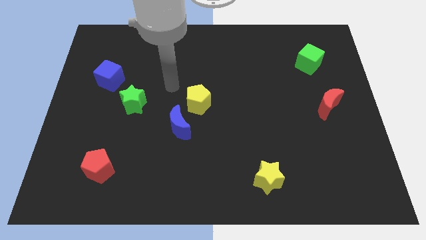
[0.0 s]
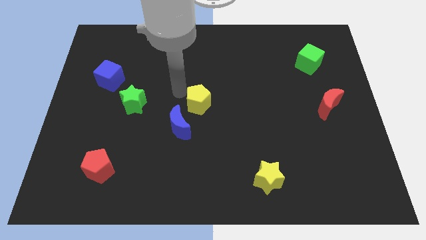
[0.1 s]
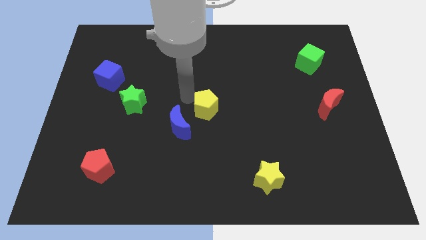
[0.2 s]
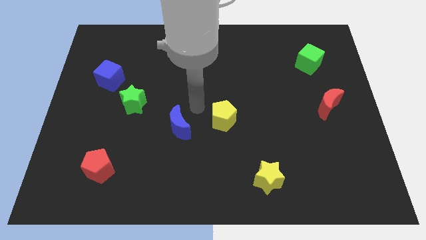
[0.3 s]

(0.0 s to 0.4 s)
move the blue moon away from the yellow pentagon

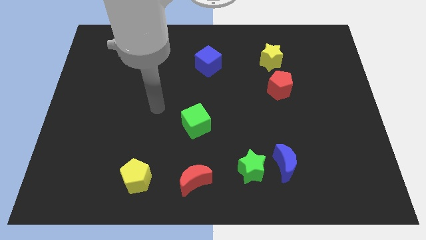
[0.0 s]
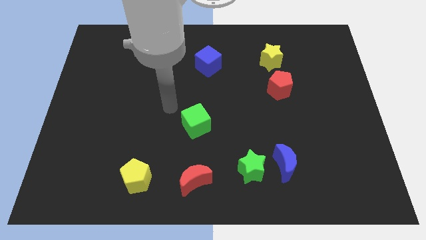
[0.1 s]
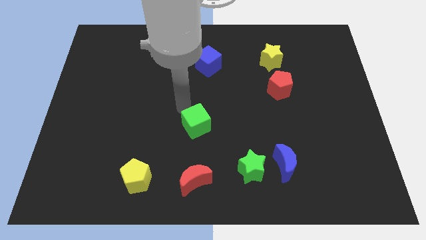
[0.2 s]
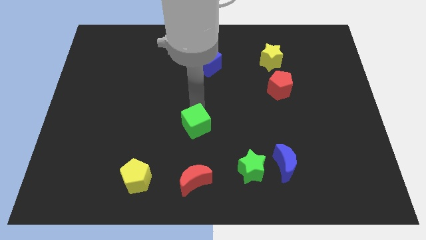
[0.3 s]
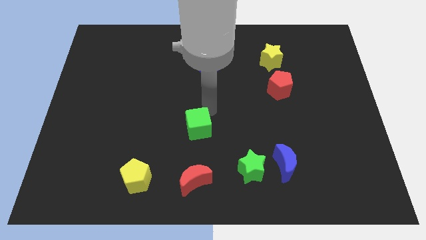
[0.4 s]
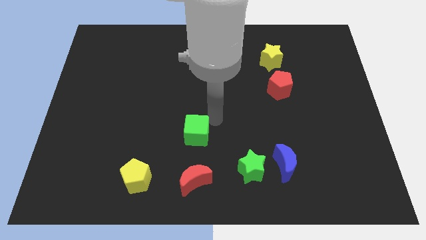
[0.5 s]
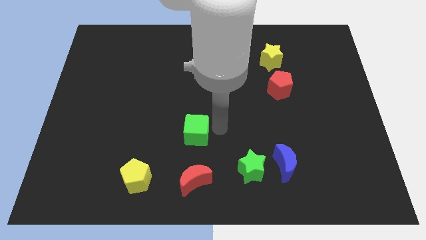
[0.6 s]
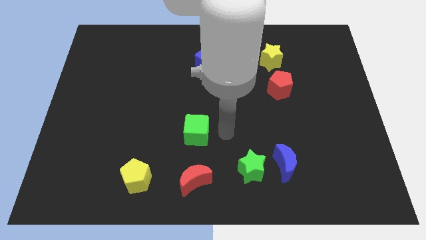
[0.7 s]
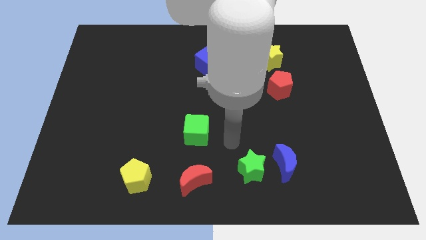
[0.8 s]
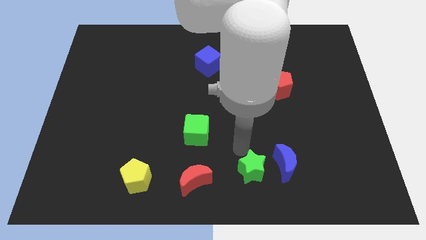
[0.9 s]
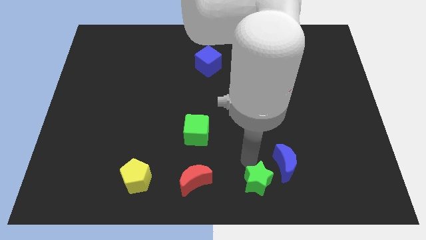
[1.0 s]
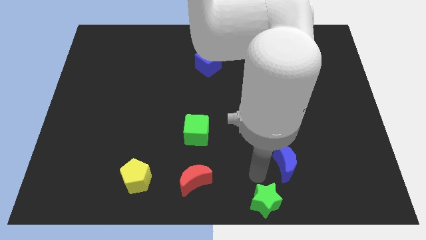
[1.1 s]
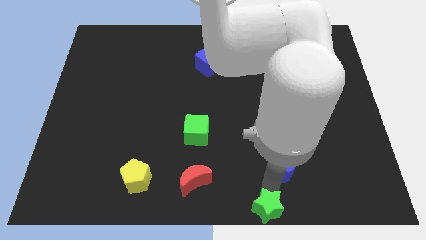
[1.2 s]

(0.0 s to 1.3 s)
pull the blue moon apart from the green star

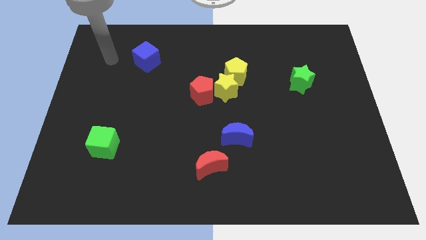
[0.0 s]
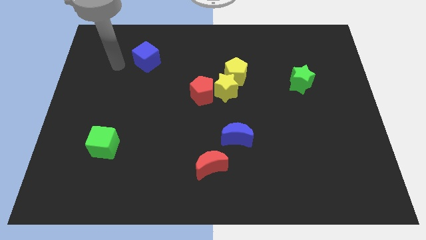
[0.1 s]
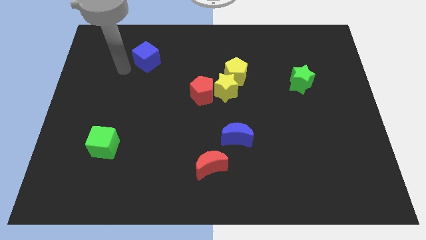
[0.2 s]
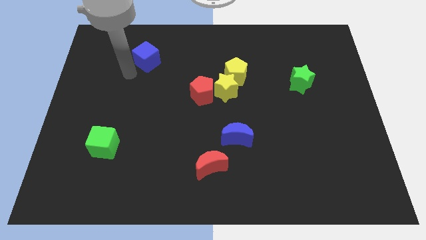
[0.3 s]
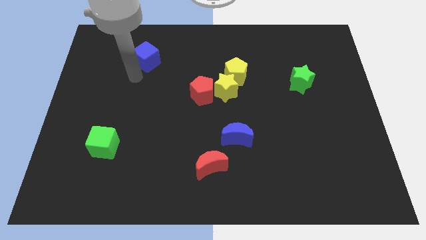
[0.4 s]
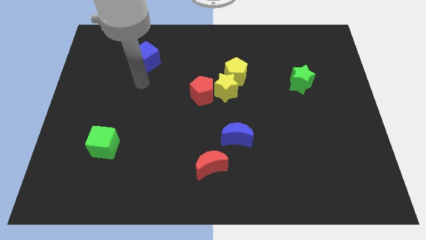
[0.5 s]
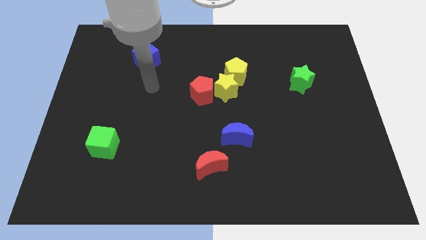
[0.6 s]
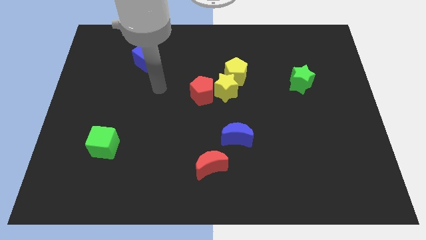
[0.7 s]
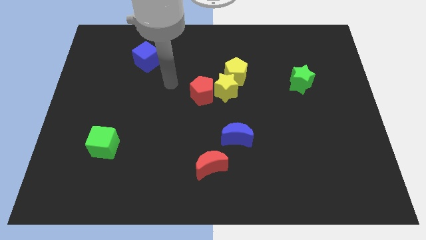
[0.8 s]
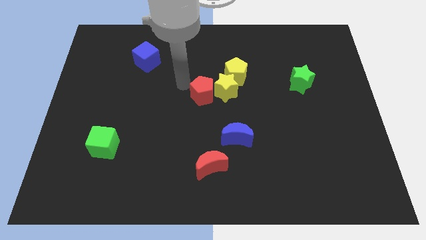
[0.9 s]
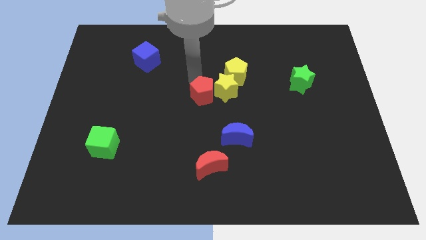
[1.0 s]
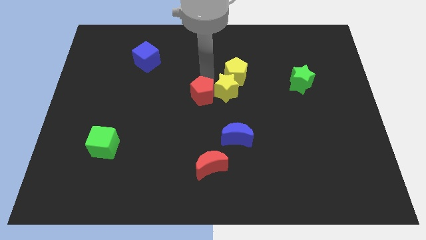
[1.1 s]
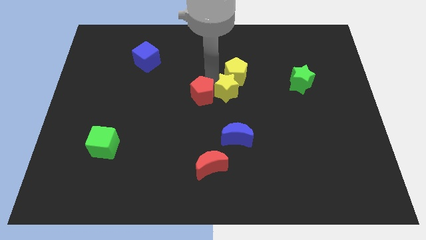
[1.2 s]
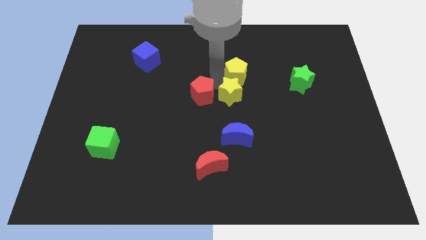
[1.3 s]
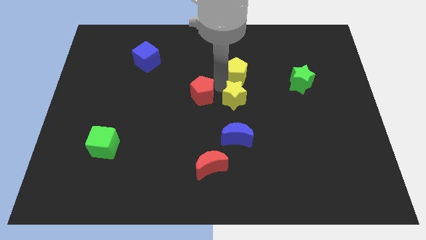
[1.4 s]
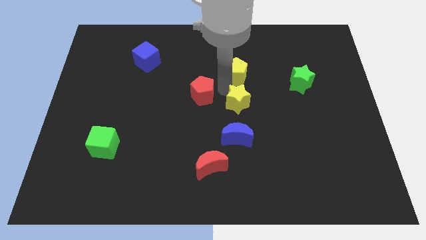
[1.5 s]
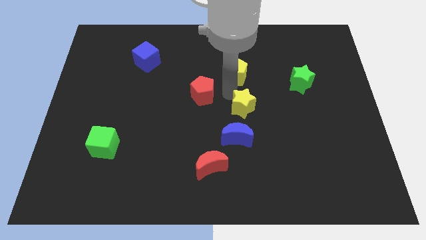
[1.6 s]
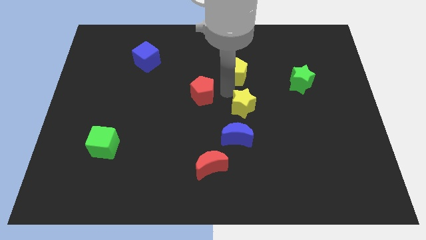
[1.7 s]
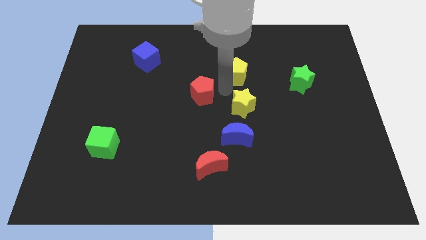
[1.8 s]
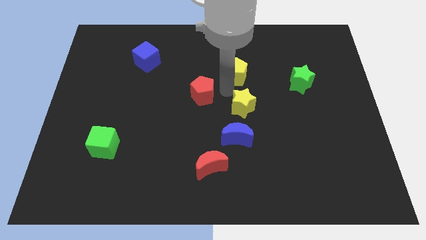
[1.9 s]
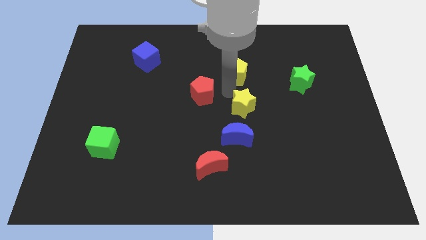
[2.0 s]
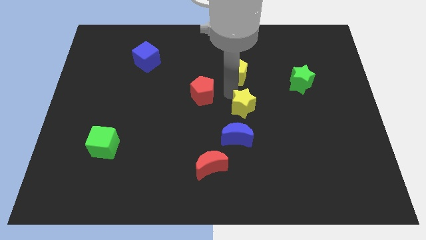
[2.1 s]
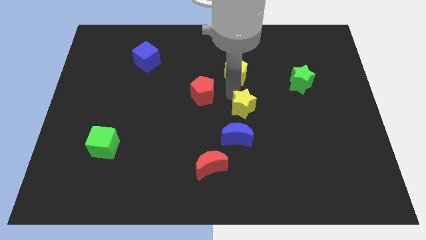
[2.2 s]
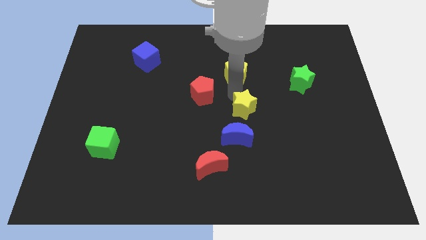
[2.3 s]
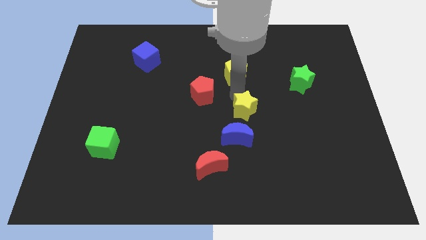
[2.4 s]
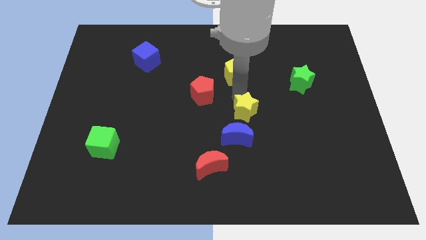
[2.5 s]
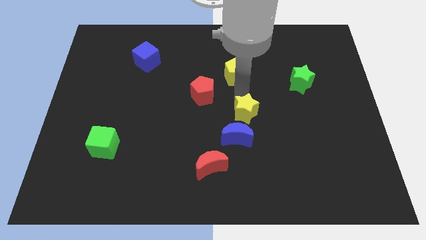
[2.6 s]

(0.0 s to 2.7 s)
separate the yellow star from the yellow pentagon and red pentagon

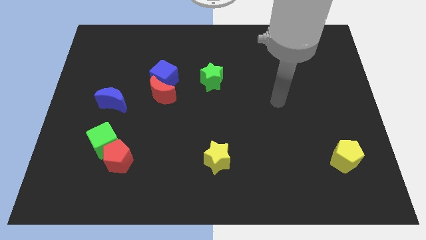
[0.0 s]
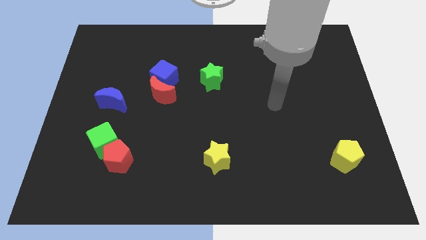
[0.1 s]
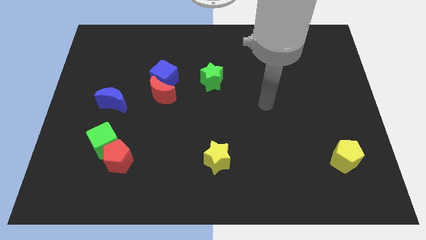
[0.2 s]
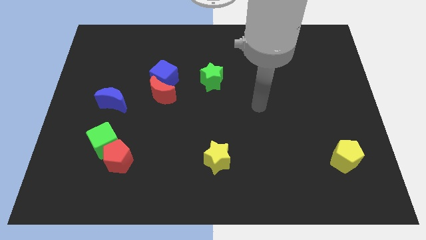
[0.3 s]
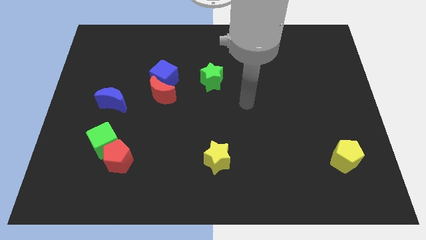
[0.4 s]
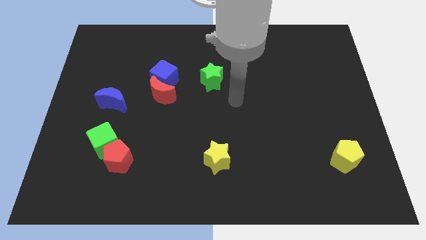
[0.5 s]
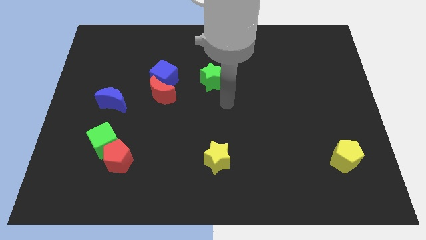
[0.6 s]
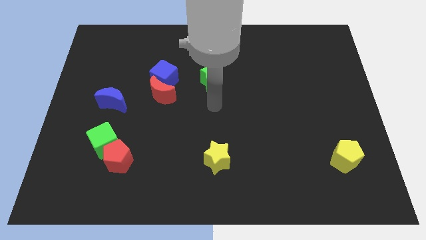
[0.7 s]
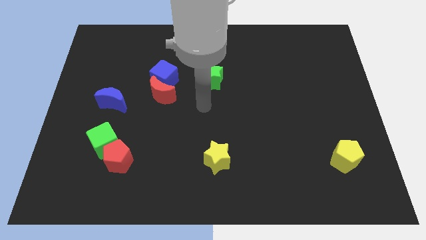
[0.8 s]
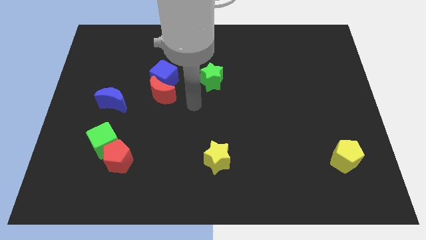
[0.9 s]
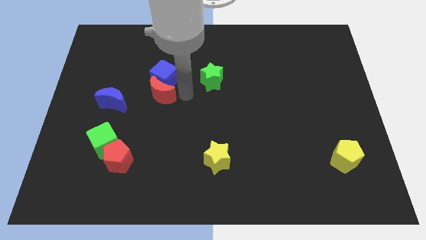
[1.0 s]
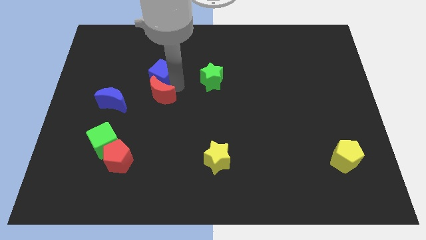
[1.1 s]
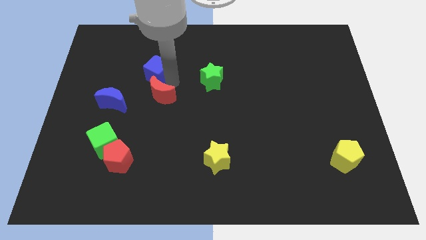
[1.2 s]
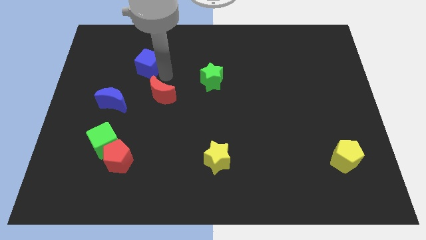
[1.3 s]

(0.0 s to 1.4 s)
move the red moon away from the blue cube

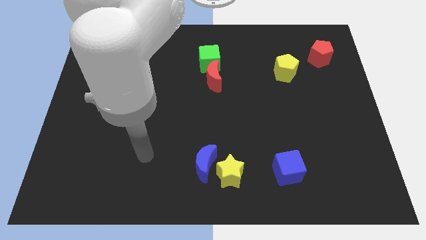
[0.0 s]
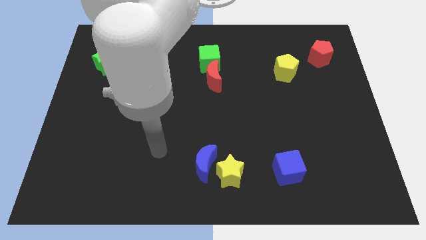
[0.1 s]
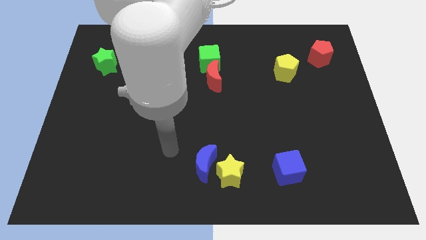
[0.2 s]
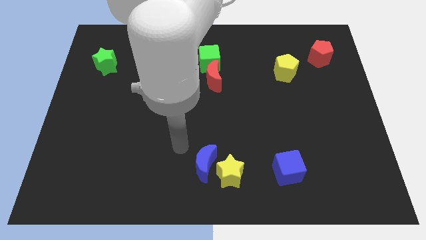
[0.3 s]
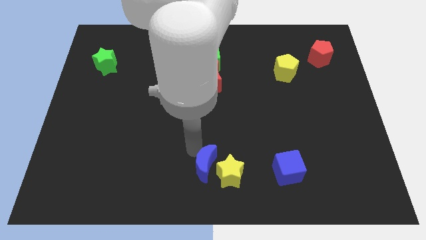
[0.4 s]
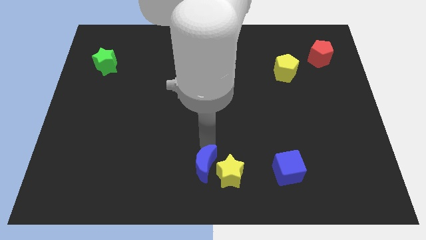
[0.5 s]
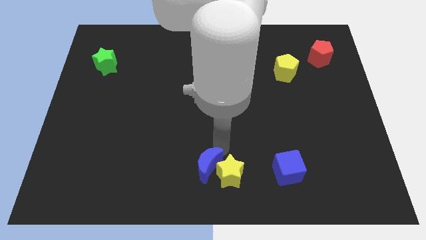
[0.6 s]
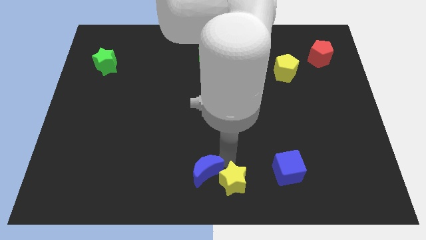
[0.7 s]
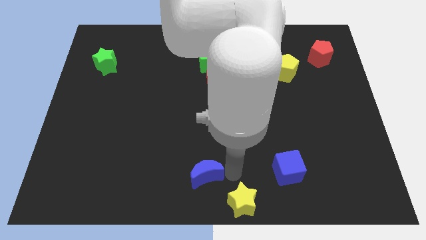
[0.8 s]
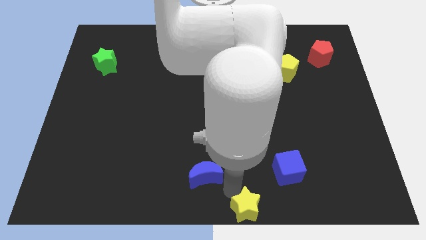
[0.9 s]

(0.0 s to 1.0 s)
pull the blue moon apart from the yellow star

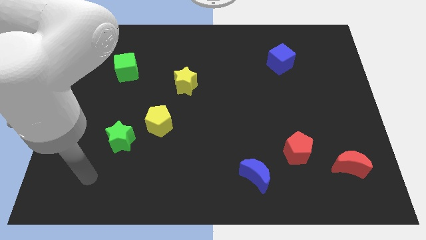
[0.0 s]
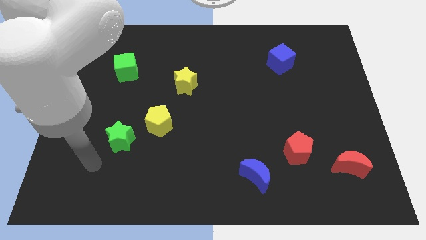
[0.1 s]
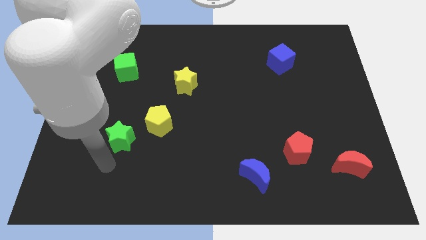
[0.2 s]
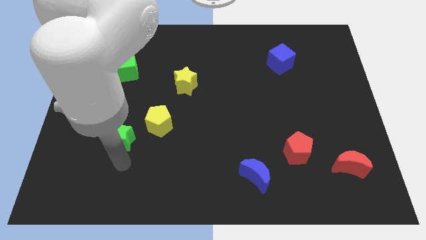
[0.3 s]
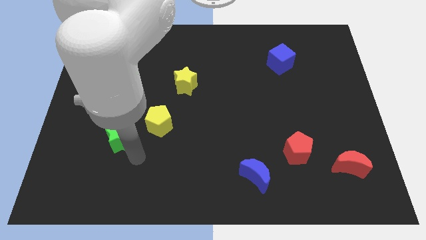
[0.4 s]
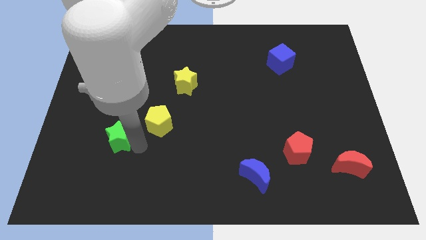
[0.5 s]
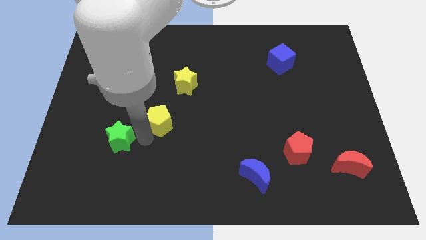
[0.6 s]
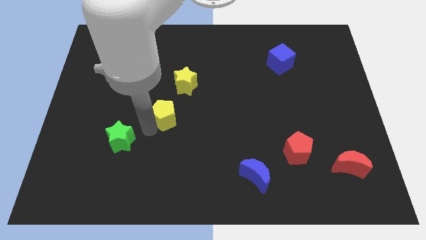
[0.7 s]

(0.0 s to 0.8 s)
pull the green star apart from the yellow pentagon

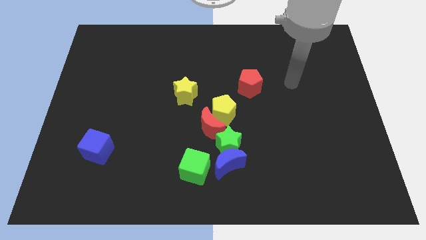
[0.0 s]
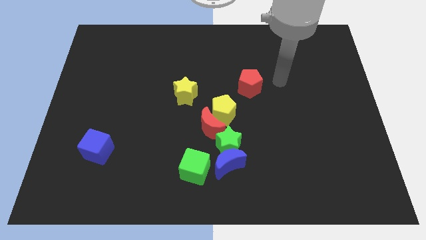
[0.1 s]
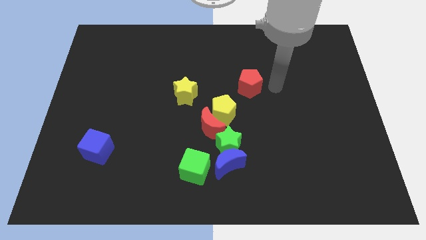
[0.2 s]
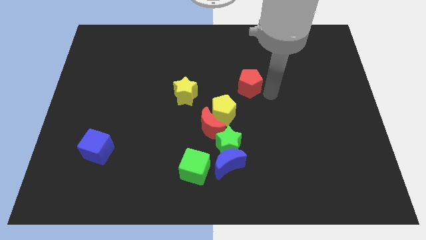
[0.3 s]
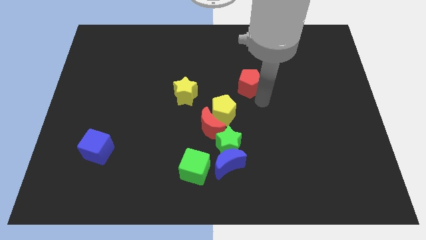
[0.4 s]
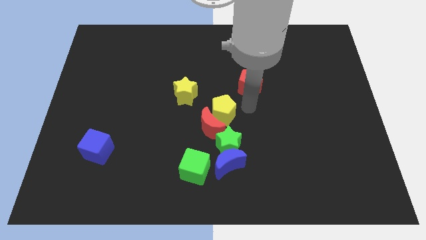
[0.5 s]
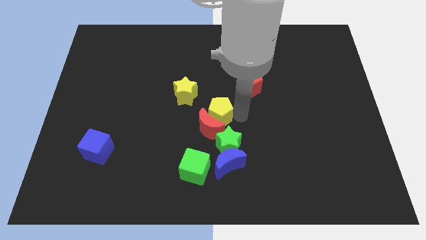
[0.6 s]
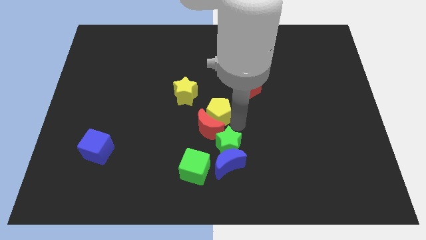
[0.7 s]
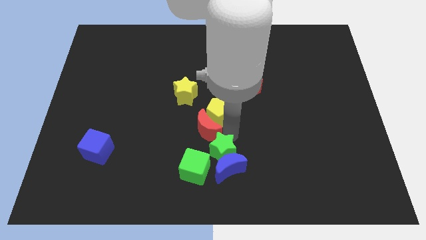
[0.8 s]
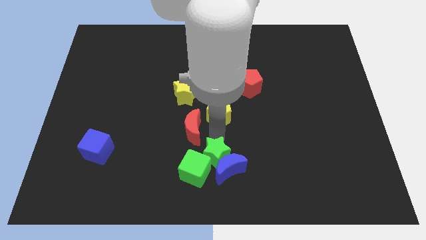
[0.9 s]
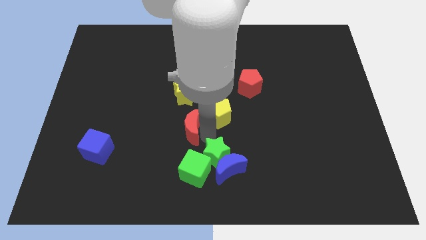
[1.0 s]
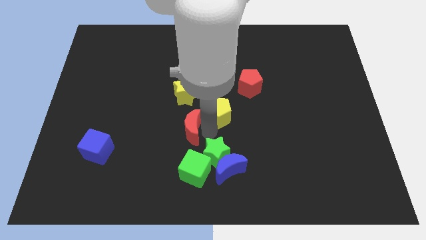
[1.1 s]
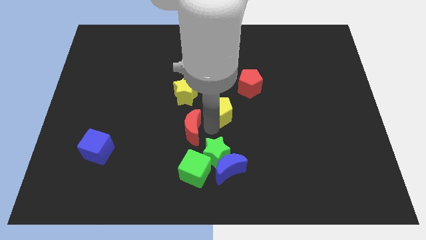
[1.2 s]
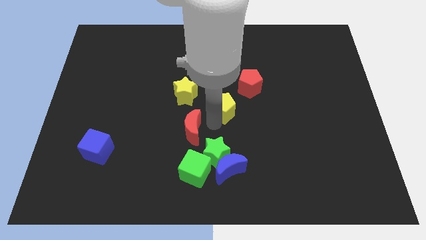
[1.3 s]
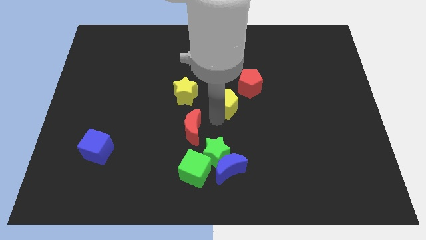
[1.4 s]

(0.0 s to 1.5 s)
move the yellow pentagon away from the red moon and green star

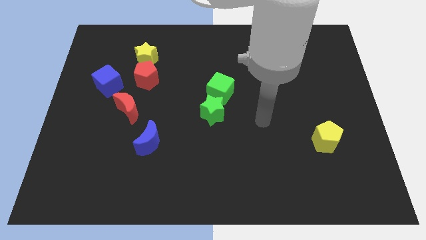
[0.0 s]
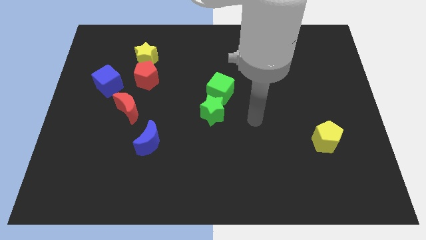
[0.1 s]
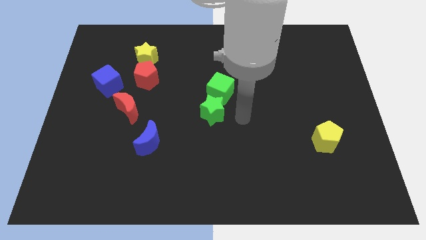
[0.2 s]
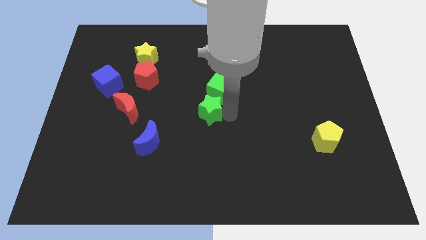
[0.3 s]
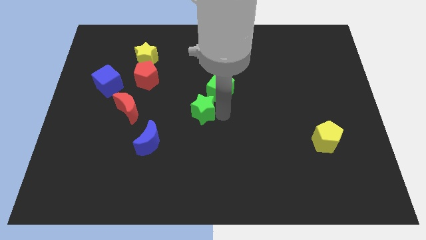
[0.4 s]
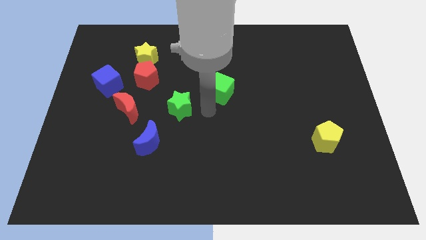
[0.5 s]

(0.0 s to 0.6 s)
pull the green cube apart from the green star
